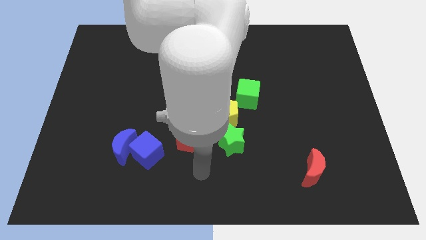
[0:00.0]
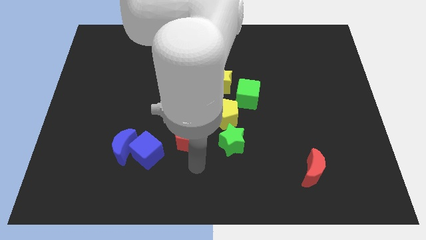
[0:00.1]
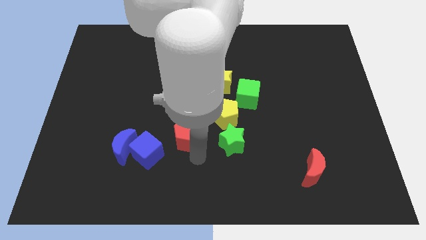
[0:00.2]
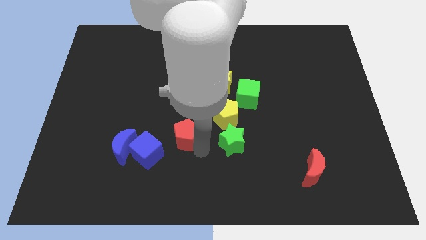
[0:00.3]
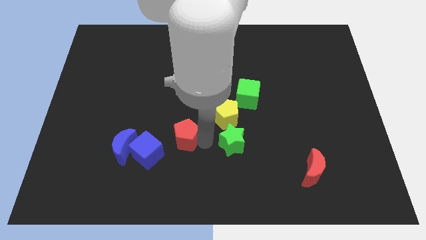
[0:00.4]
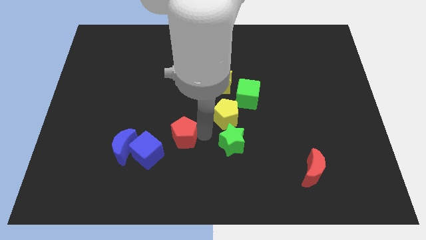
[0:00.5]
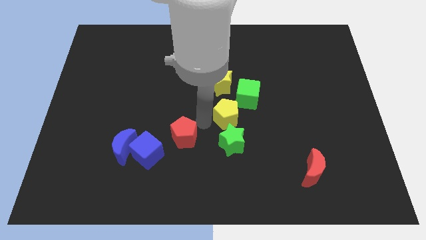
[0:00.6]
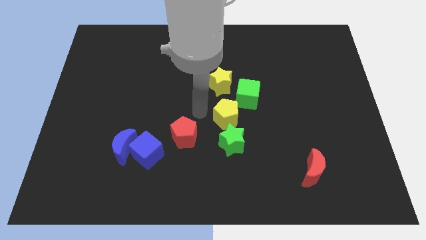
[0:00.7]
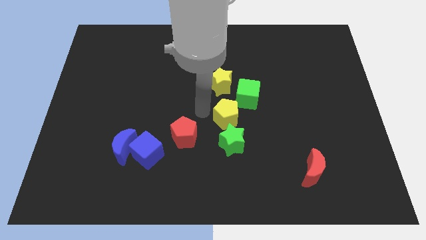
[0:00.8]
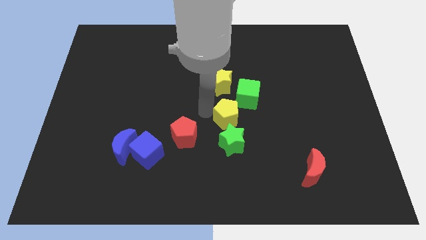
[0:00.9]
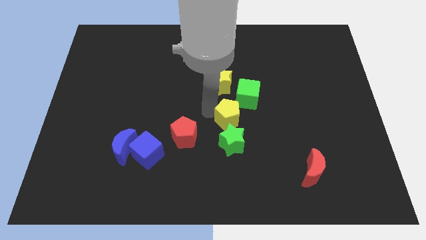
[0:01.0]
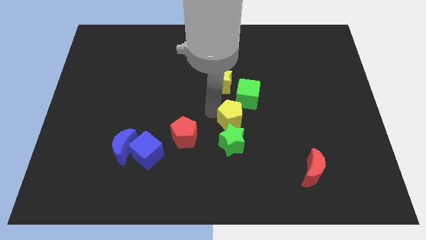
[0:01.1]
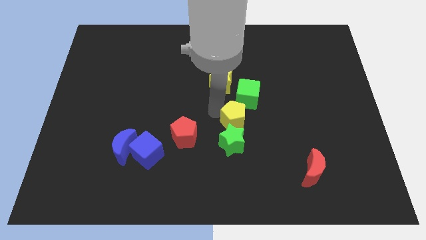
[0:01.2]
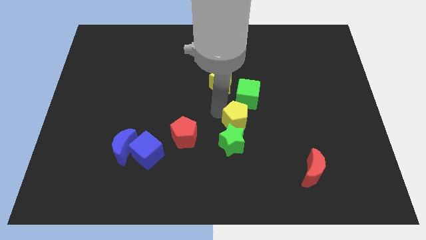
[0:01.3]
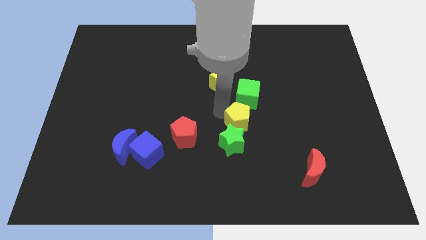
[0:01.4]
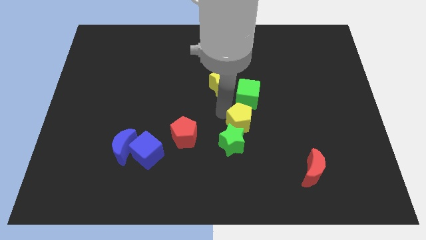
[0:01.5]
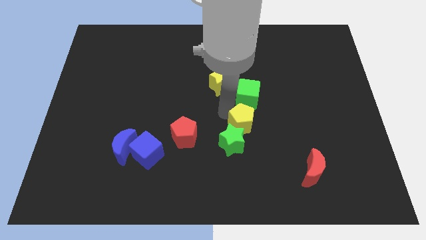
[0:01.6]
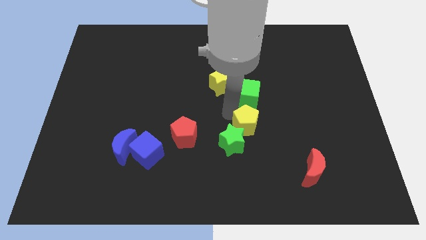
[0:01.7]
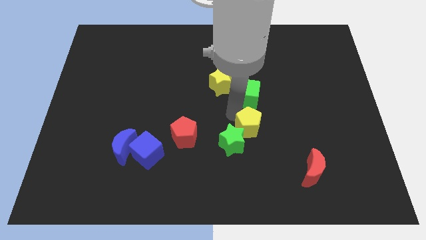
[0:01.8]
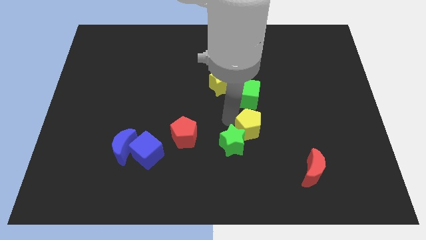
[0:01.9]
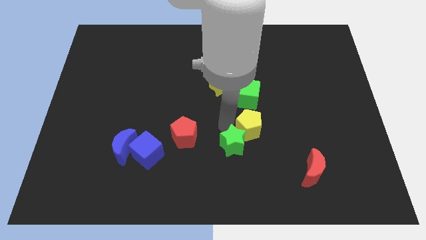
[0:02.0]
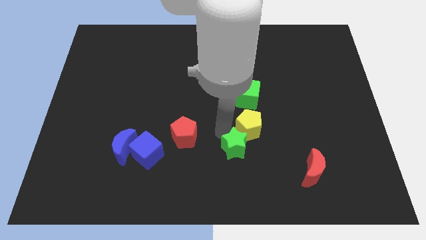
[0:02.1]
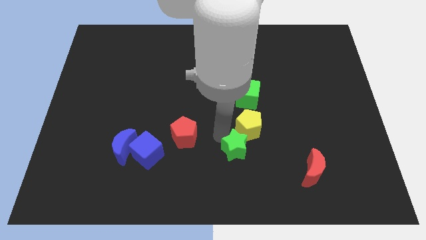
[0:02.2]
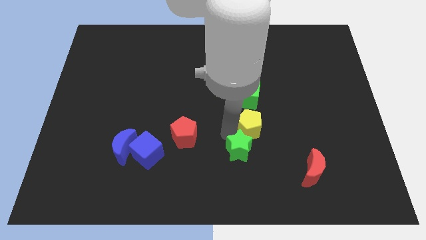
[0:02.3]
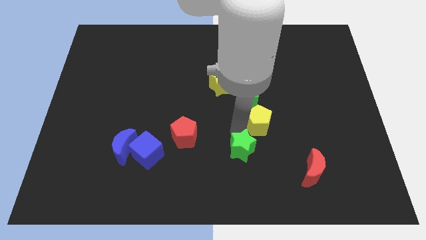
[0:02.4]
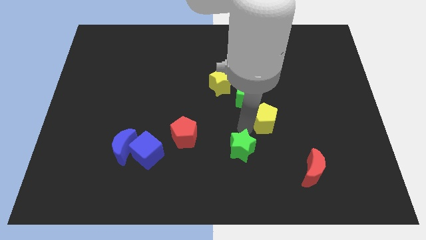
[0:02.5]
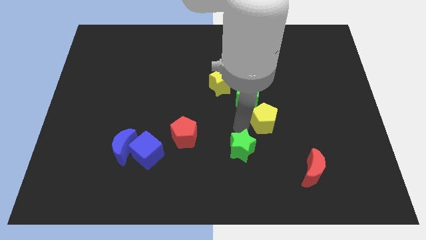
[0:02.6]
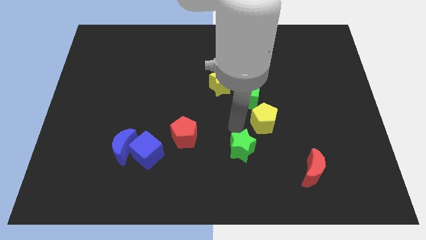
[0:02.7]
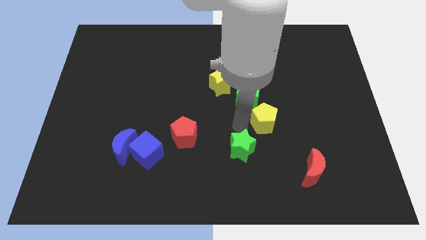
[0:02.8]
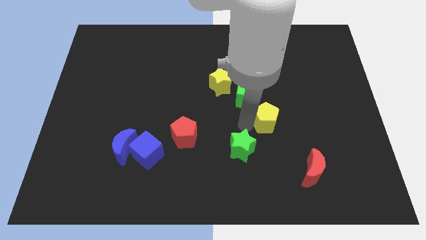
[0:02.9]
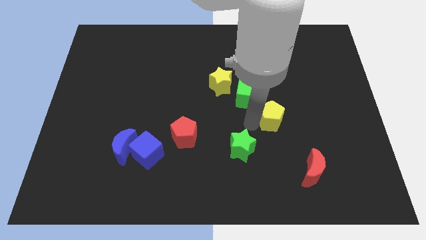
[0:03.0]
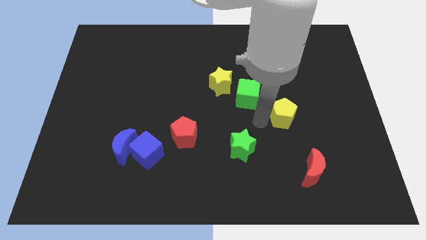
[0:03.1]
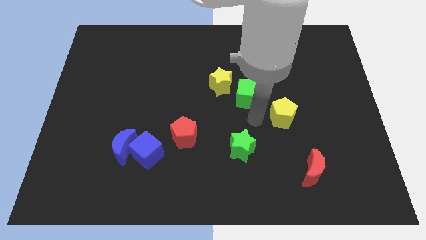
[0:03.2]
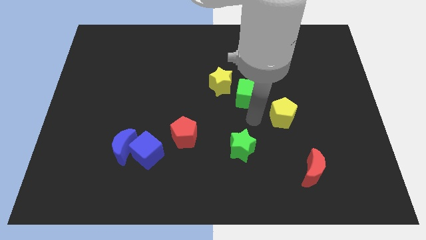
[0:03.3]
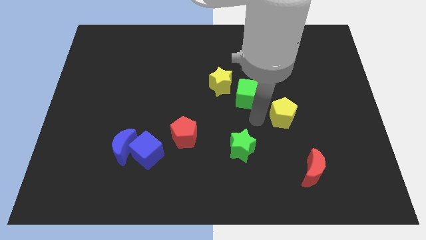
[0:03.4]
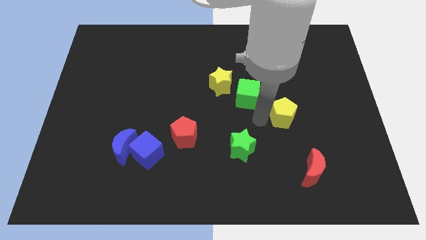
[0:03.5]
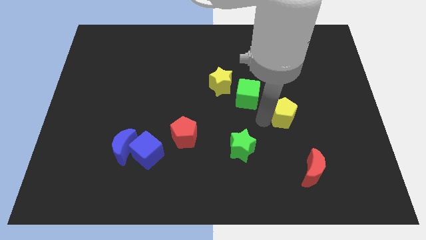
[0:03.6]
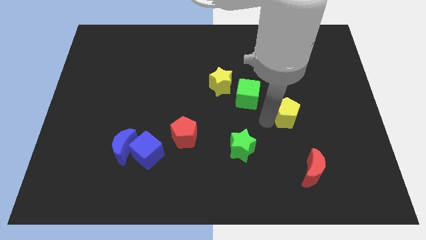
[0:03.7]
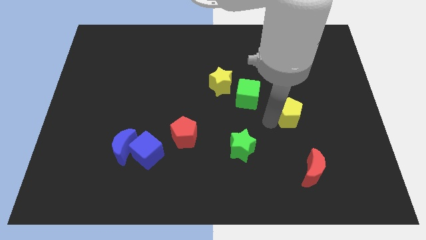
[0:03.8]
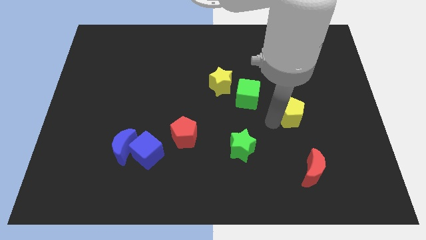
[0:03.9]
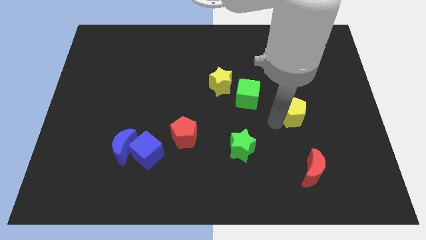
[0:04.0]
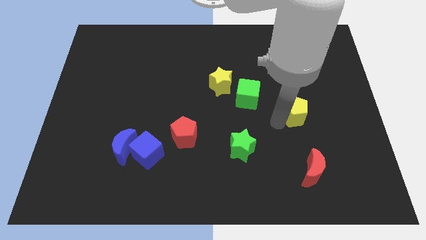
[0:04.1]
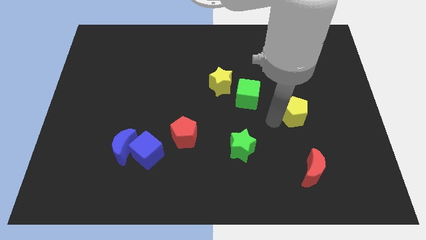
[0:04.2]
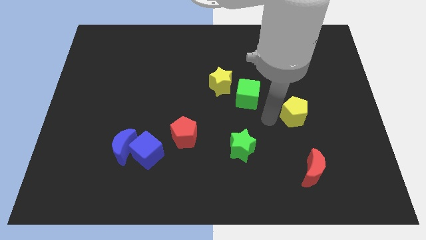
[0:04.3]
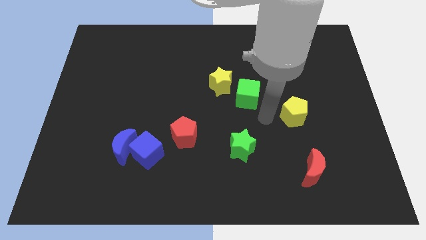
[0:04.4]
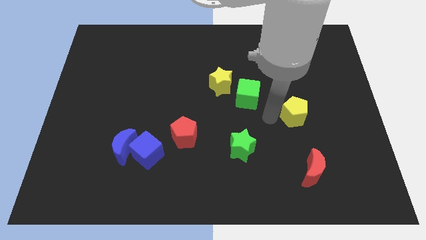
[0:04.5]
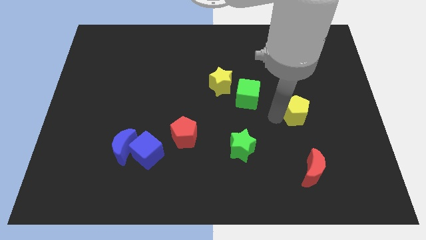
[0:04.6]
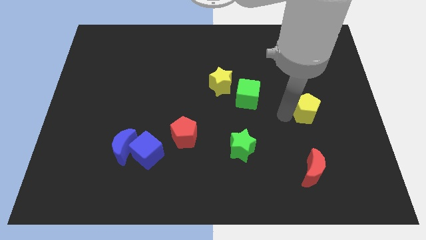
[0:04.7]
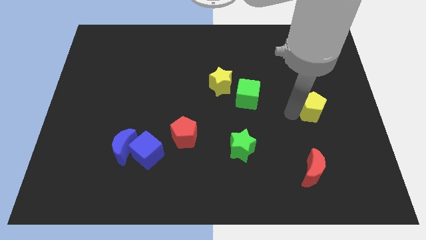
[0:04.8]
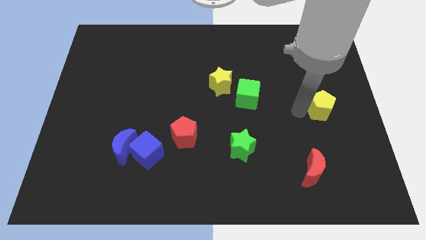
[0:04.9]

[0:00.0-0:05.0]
move the yellow pentagon to the right side of the board

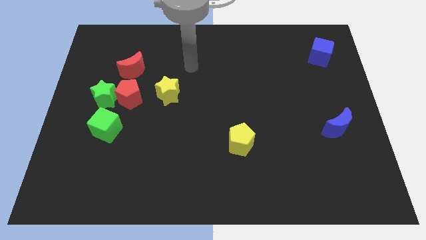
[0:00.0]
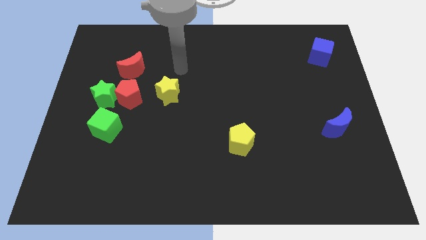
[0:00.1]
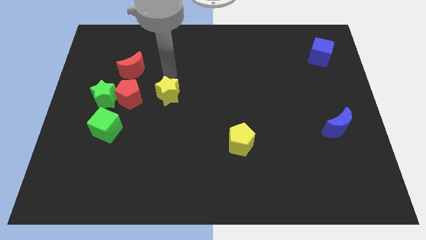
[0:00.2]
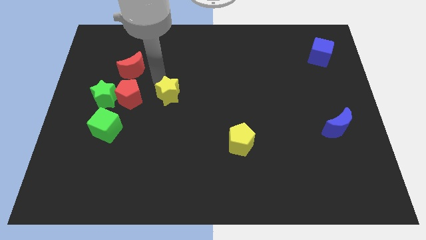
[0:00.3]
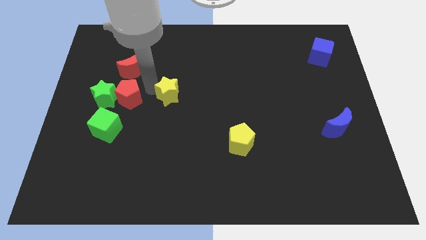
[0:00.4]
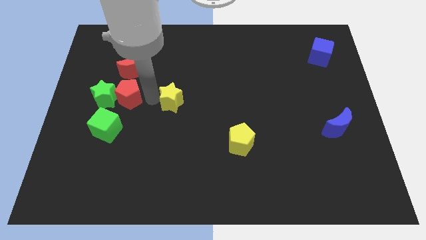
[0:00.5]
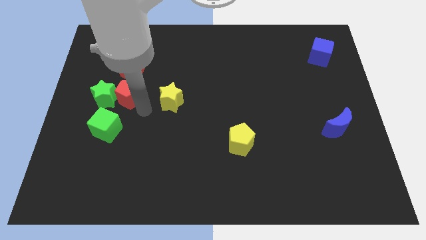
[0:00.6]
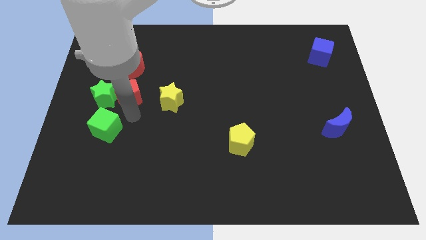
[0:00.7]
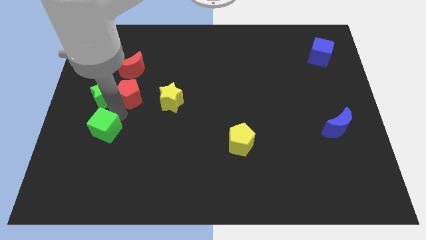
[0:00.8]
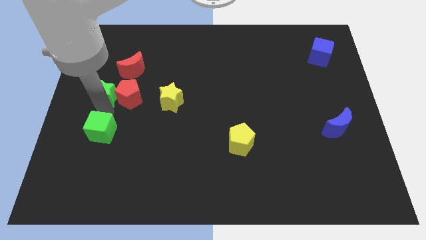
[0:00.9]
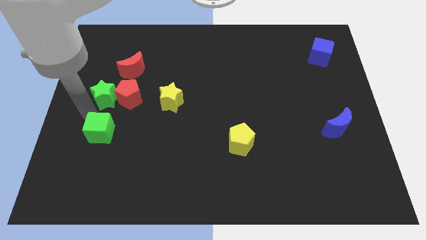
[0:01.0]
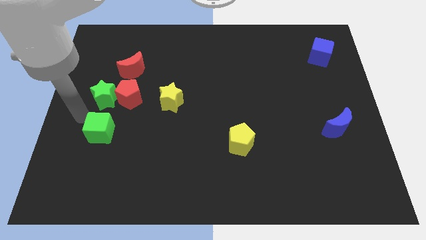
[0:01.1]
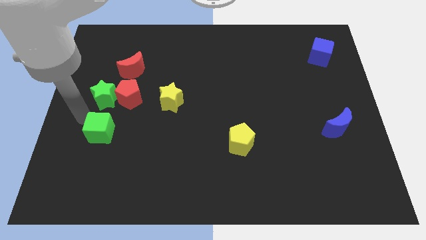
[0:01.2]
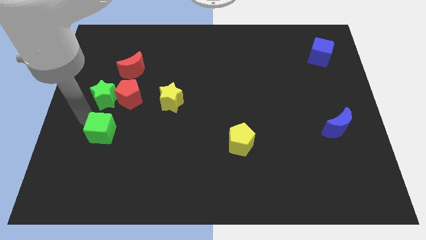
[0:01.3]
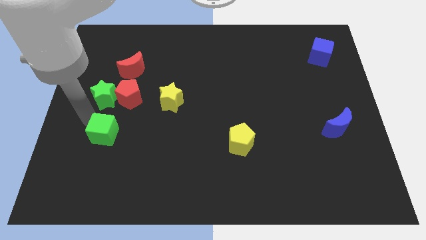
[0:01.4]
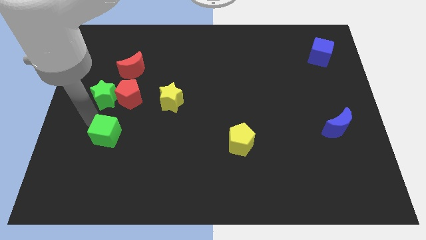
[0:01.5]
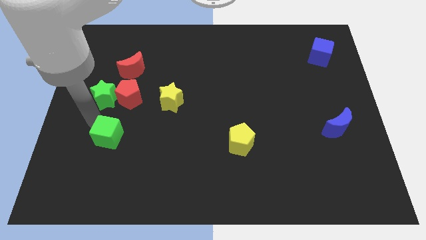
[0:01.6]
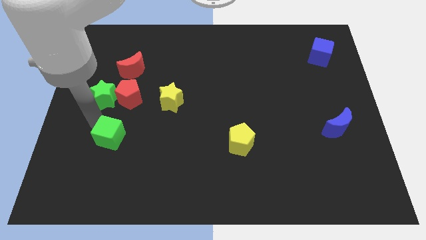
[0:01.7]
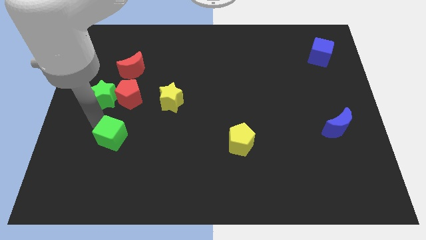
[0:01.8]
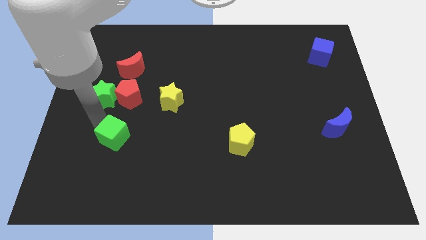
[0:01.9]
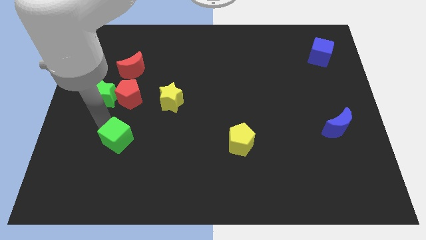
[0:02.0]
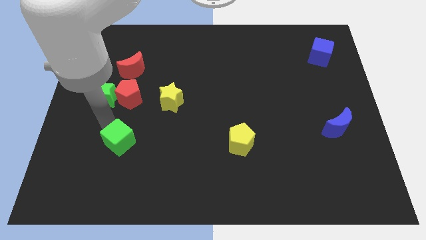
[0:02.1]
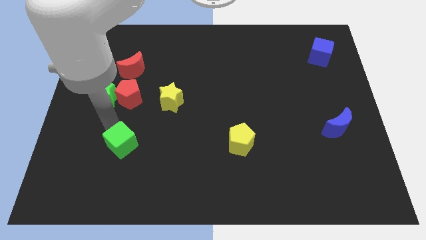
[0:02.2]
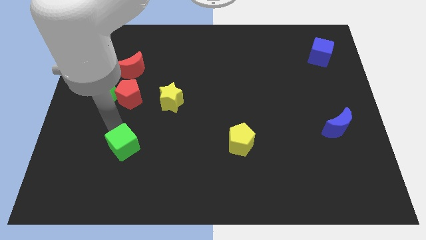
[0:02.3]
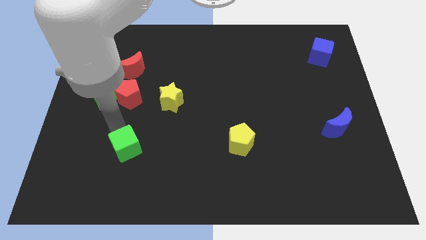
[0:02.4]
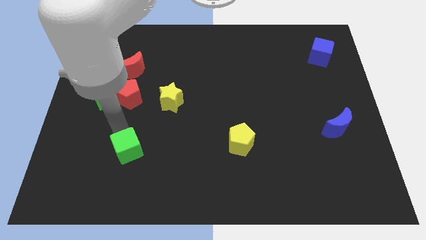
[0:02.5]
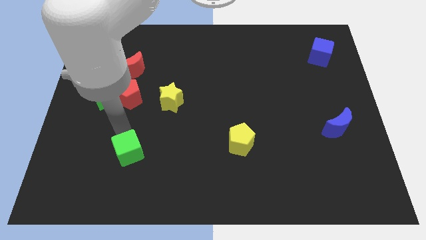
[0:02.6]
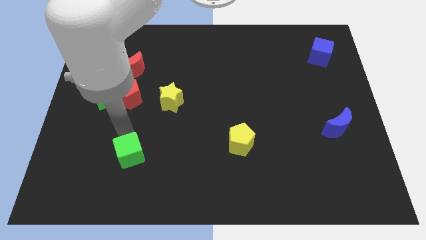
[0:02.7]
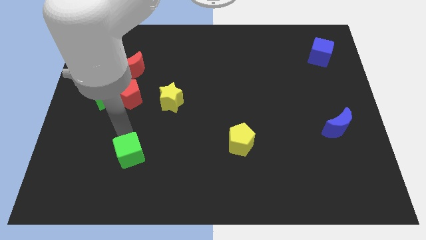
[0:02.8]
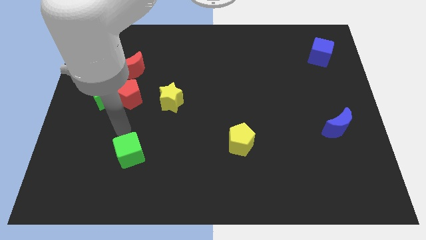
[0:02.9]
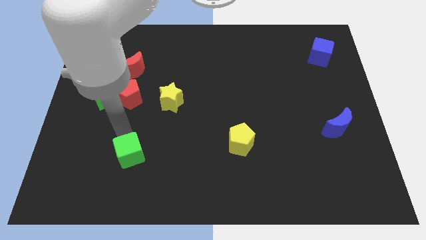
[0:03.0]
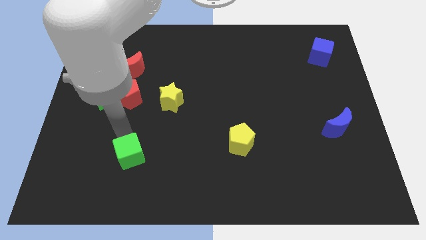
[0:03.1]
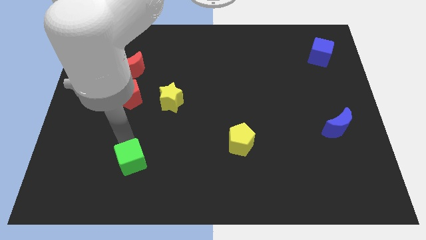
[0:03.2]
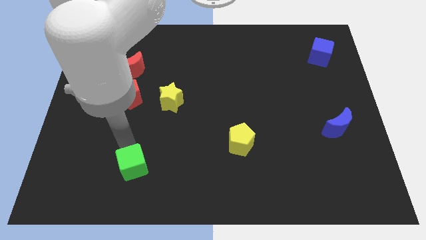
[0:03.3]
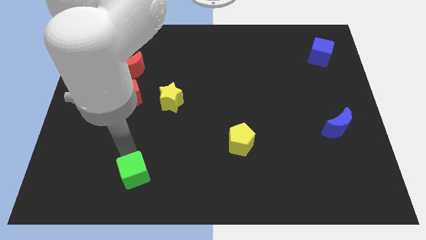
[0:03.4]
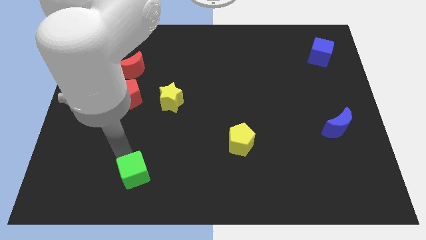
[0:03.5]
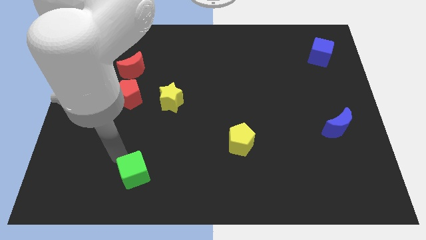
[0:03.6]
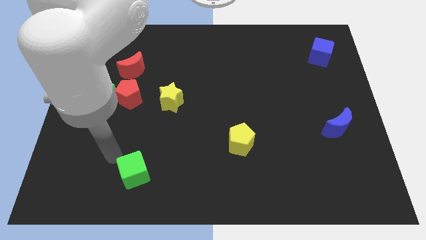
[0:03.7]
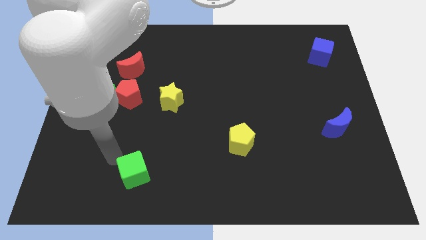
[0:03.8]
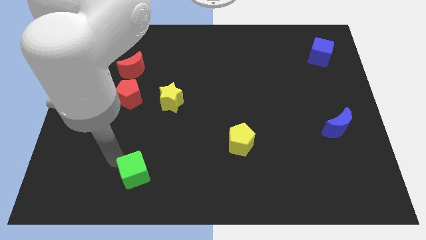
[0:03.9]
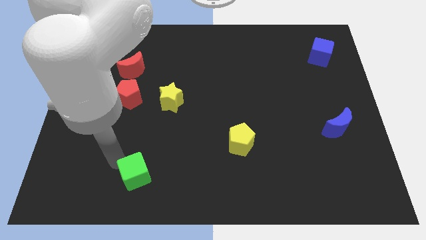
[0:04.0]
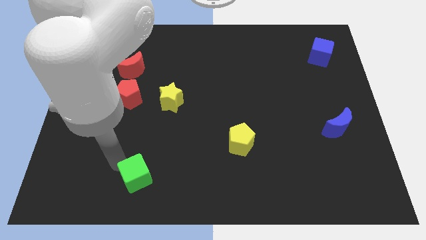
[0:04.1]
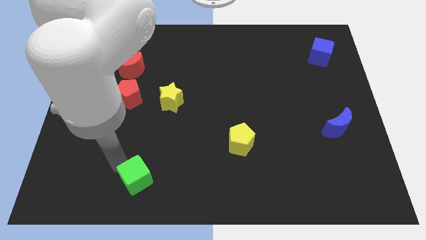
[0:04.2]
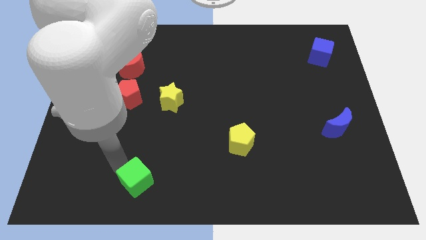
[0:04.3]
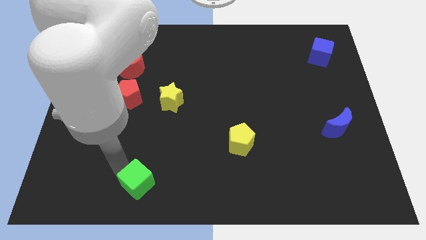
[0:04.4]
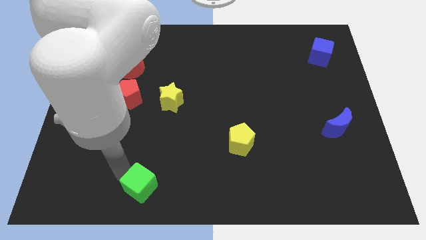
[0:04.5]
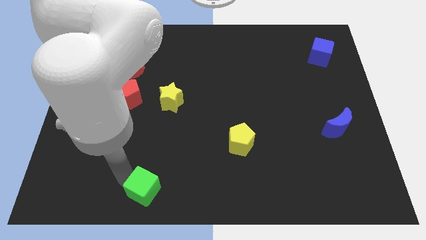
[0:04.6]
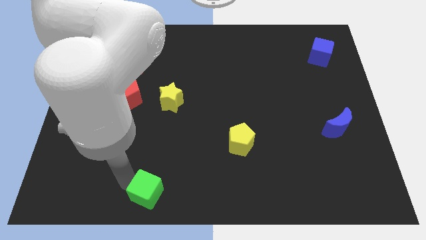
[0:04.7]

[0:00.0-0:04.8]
slide the green cube to the bottom
